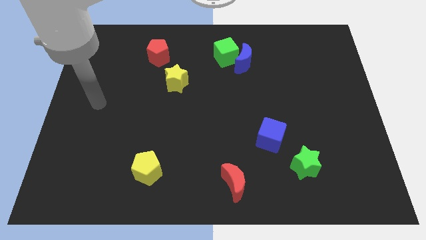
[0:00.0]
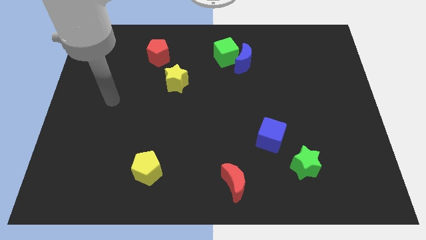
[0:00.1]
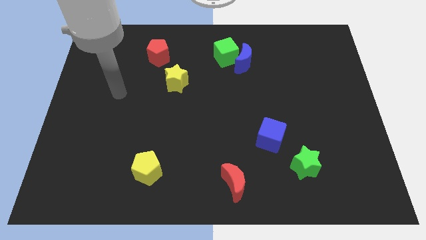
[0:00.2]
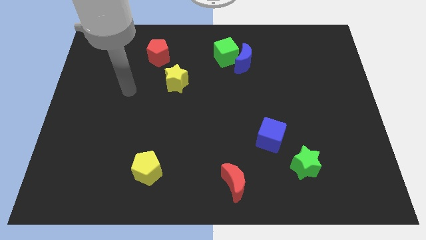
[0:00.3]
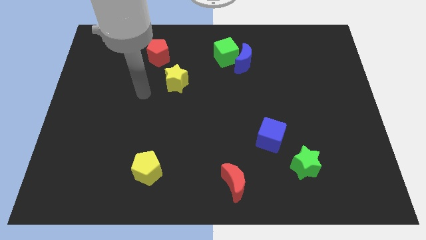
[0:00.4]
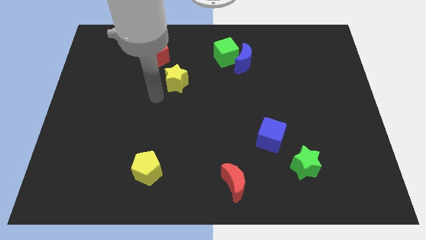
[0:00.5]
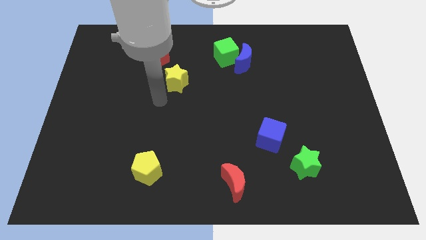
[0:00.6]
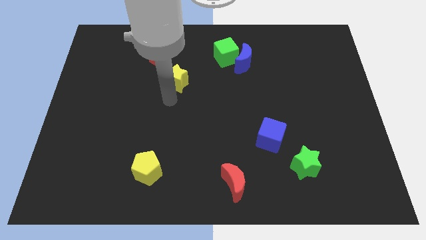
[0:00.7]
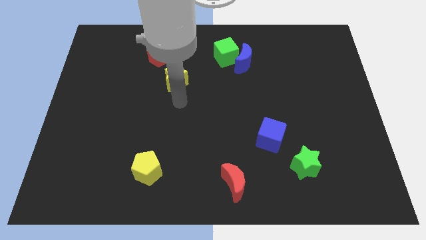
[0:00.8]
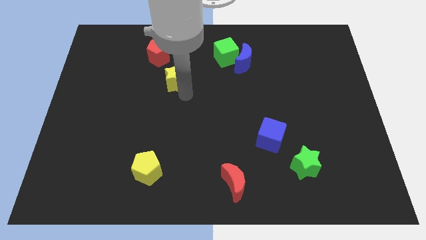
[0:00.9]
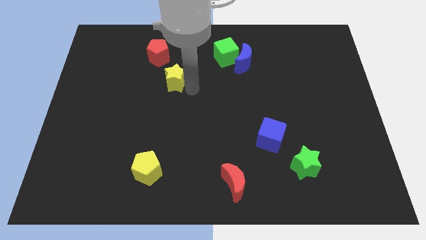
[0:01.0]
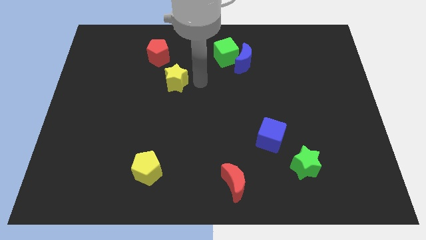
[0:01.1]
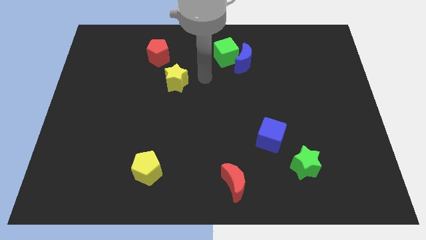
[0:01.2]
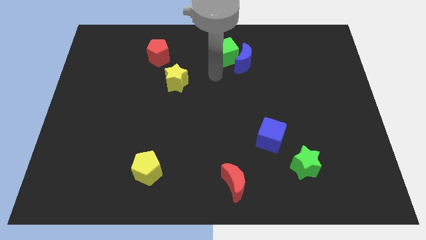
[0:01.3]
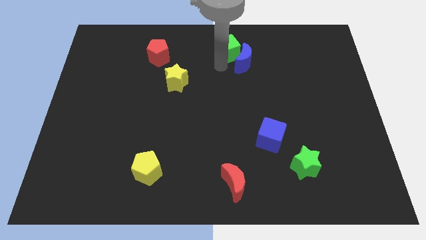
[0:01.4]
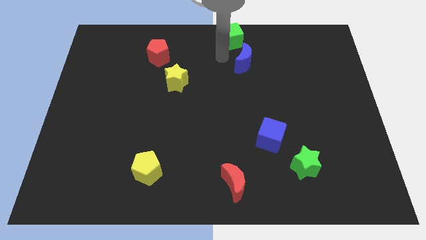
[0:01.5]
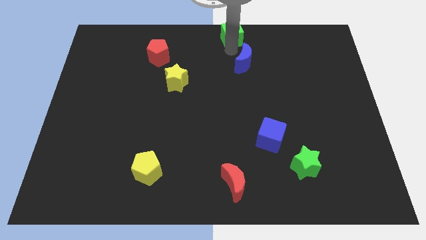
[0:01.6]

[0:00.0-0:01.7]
pull the blue moon apart from the green cube

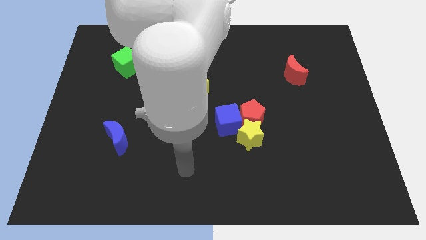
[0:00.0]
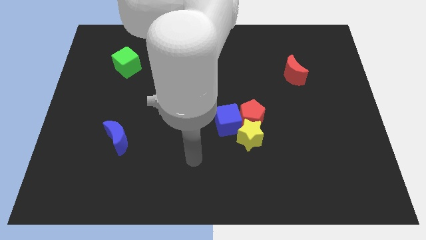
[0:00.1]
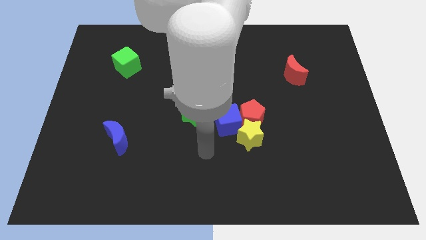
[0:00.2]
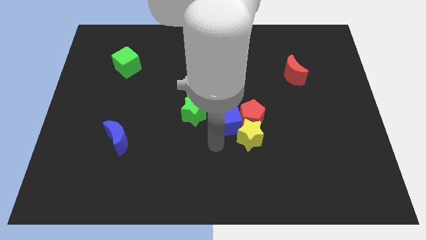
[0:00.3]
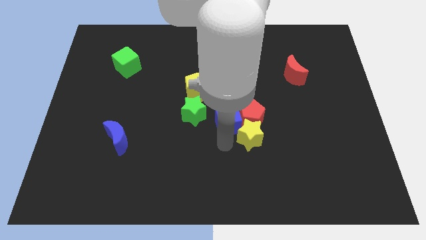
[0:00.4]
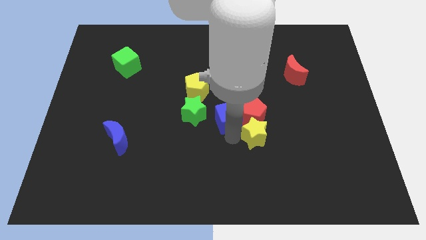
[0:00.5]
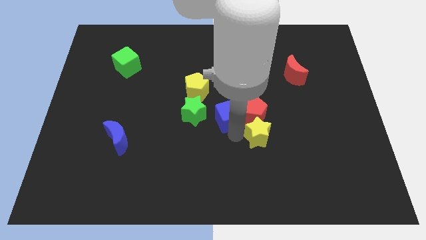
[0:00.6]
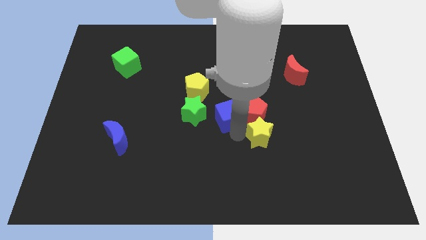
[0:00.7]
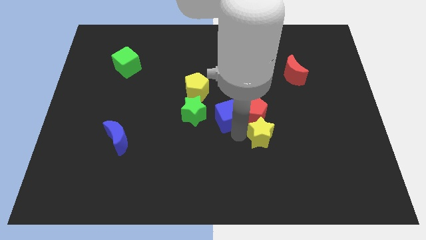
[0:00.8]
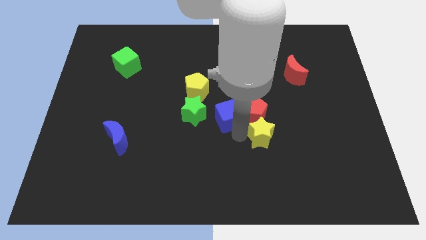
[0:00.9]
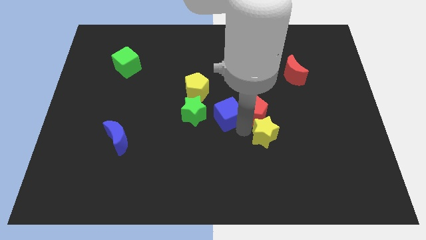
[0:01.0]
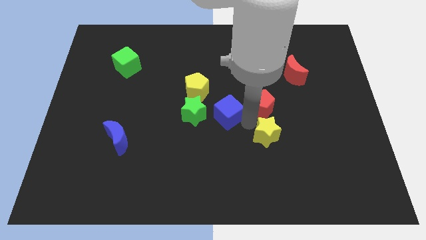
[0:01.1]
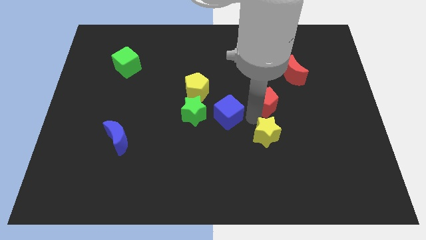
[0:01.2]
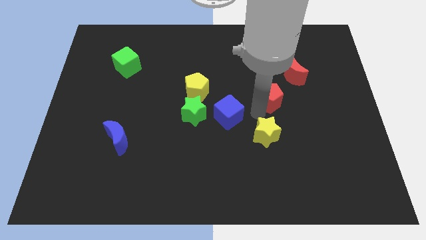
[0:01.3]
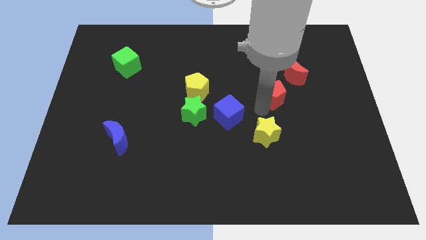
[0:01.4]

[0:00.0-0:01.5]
move the red pentagon away from the yellow star and blue cube

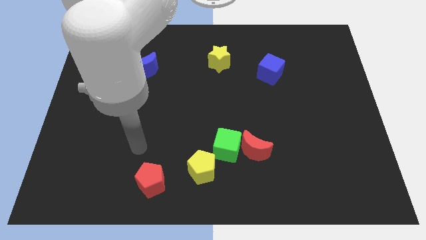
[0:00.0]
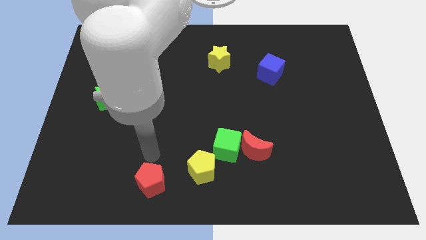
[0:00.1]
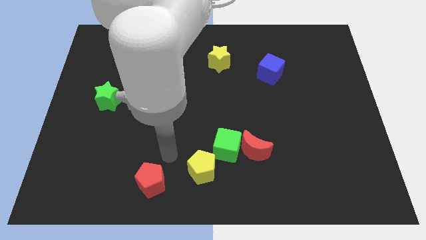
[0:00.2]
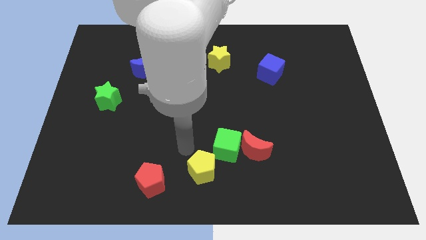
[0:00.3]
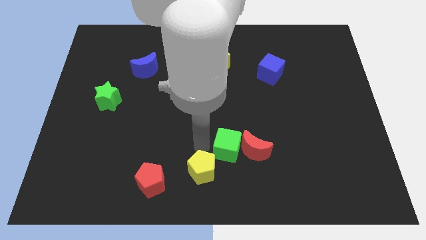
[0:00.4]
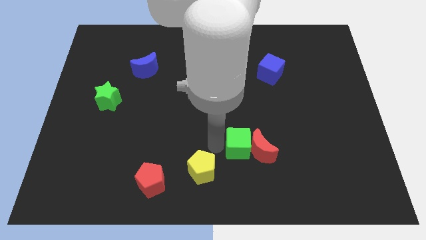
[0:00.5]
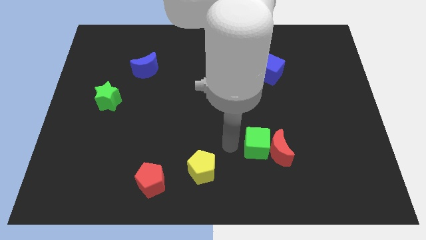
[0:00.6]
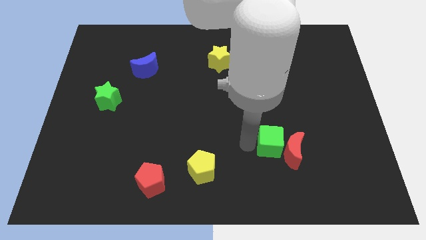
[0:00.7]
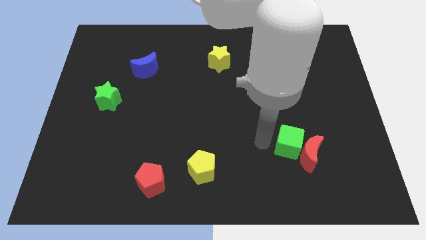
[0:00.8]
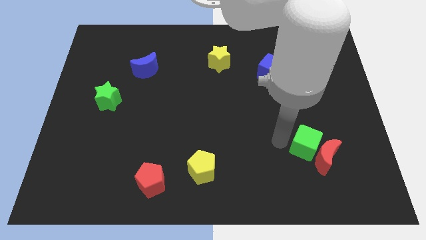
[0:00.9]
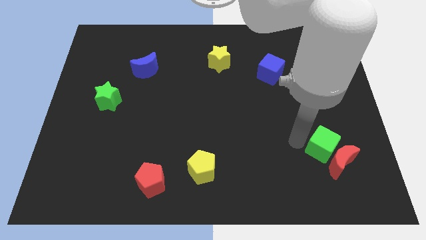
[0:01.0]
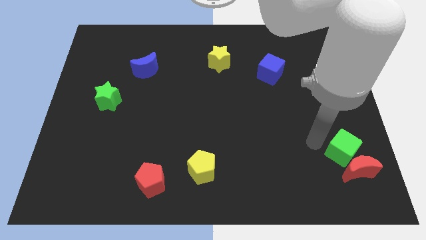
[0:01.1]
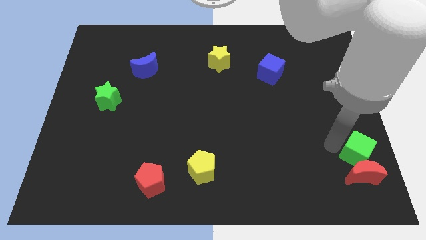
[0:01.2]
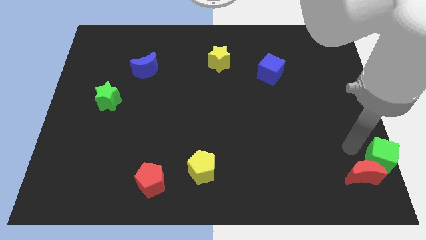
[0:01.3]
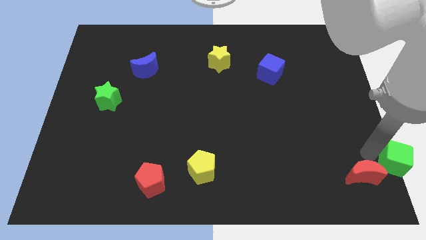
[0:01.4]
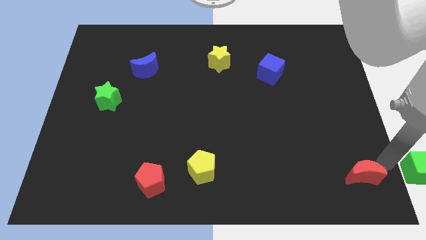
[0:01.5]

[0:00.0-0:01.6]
move the red moon away from the green cube

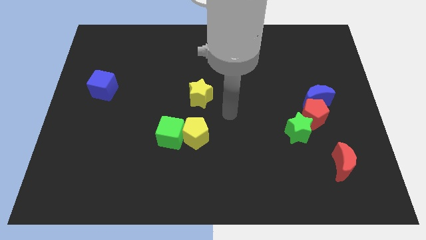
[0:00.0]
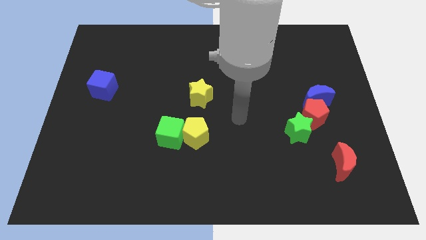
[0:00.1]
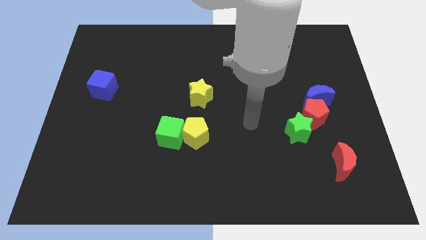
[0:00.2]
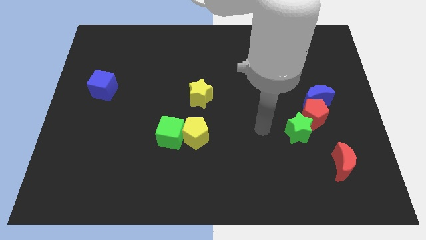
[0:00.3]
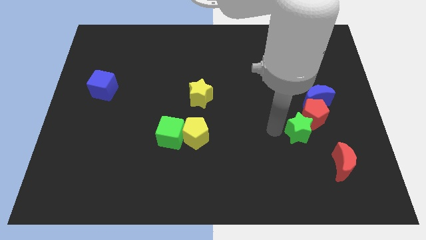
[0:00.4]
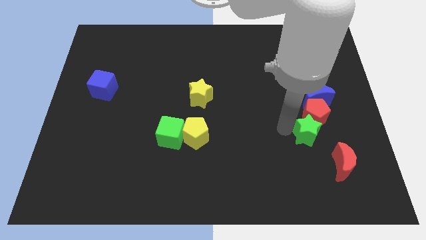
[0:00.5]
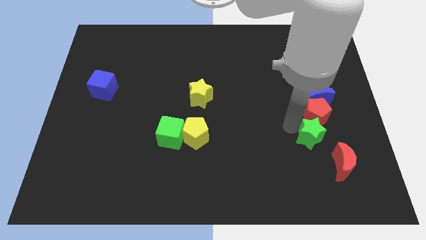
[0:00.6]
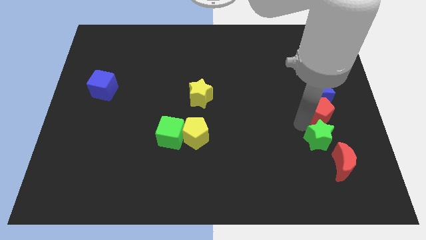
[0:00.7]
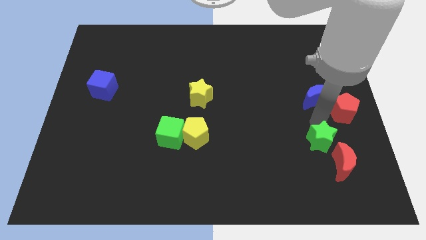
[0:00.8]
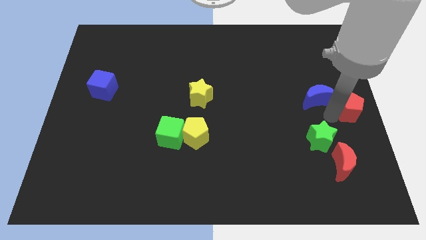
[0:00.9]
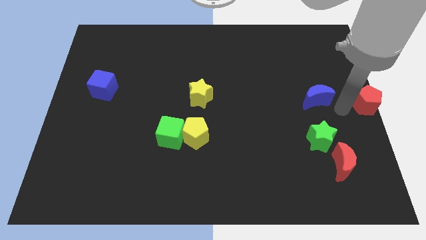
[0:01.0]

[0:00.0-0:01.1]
move the blue moon away from the red pentagon

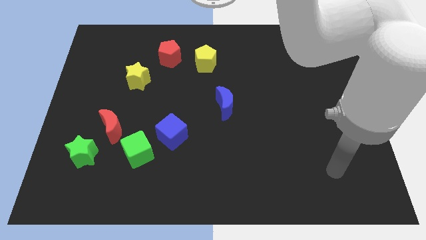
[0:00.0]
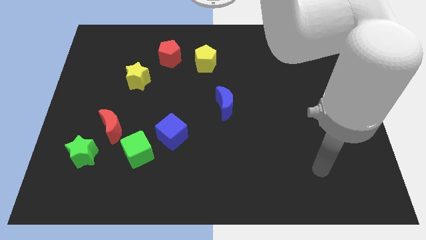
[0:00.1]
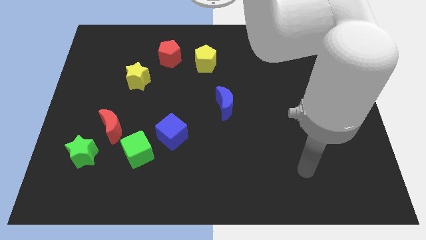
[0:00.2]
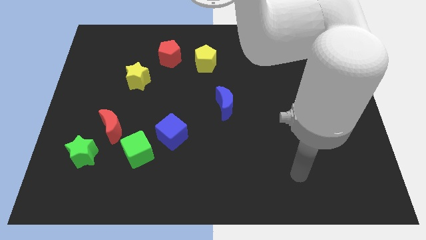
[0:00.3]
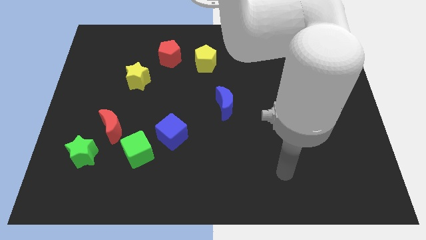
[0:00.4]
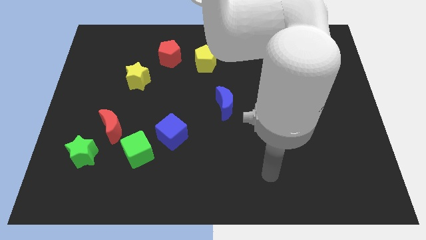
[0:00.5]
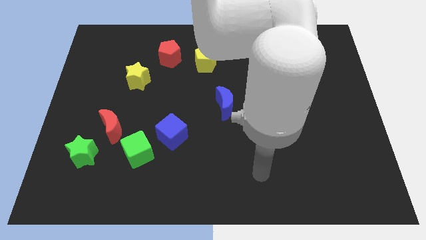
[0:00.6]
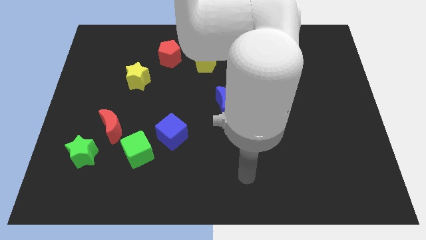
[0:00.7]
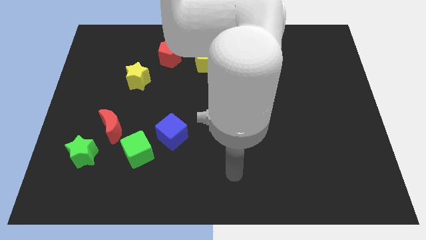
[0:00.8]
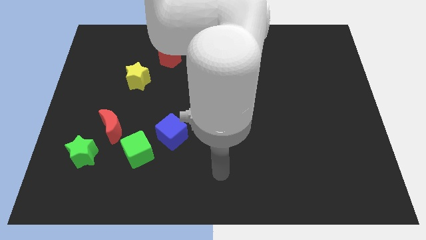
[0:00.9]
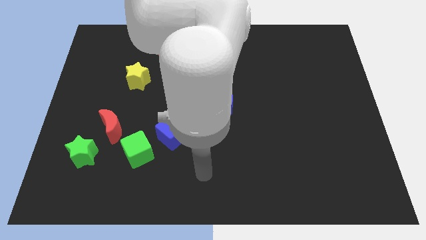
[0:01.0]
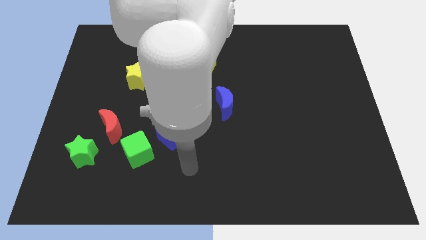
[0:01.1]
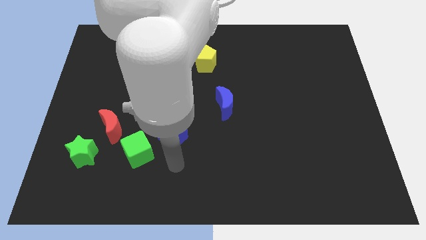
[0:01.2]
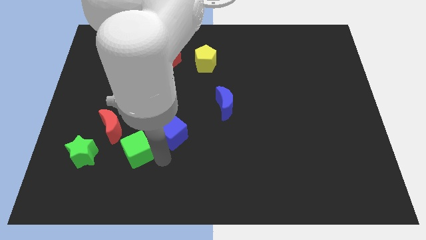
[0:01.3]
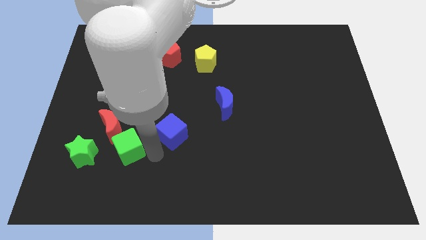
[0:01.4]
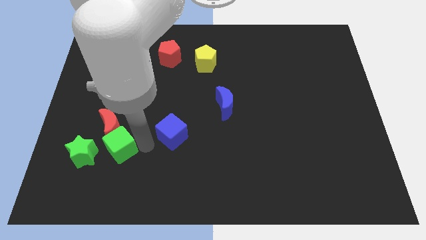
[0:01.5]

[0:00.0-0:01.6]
separate the blue cube from the green cube

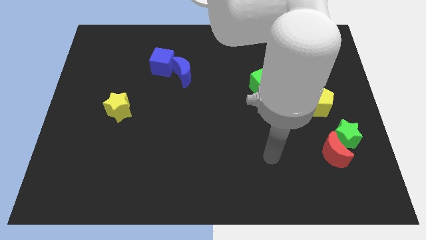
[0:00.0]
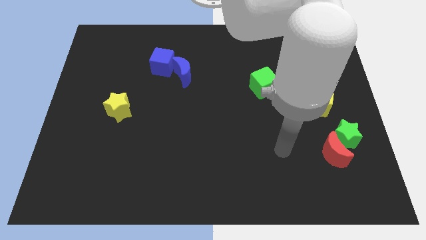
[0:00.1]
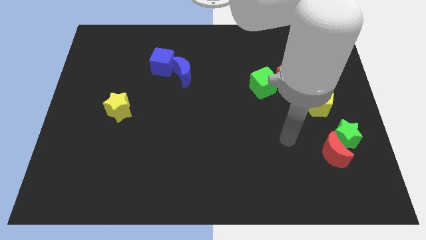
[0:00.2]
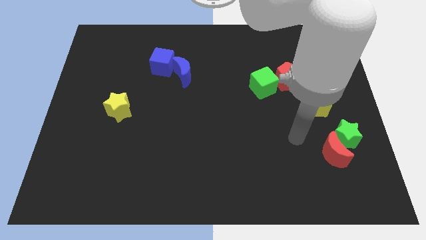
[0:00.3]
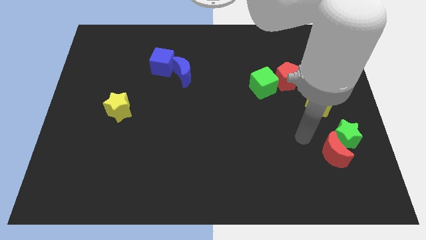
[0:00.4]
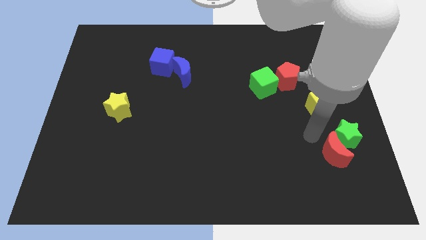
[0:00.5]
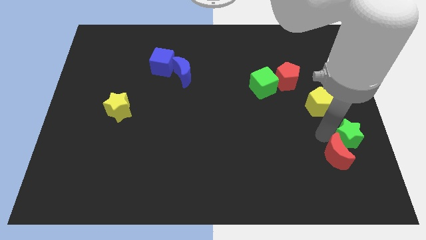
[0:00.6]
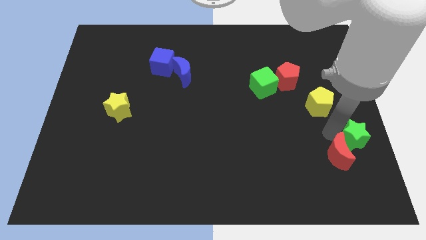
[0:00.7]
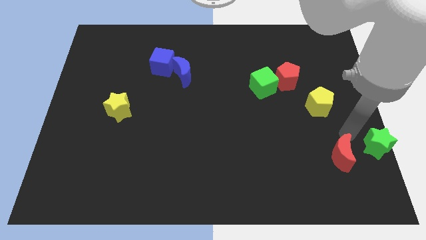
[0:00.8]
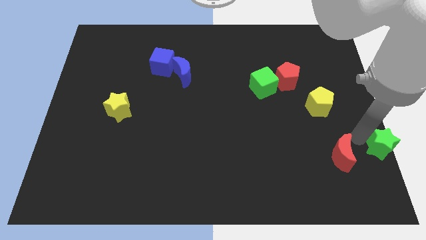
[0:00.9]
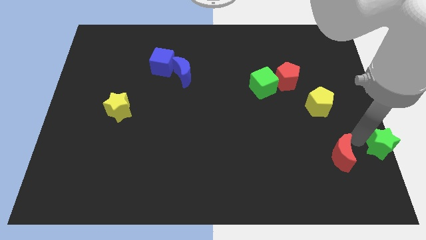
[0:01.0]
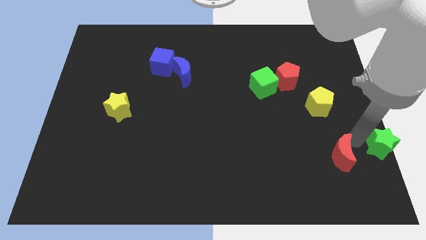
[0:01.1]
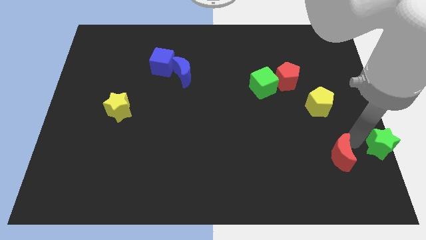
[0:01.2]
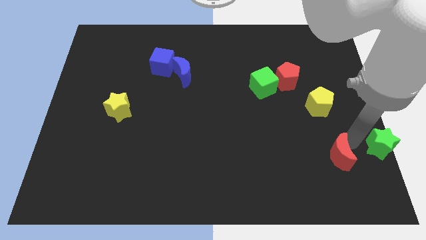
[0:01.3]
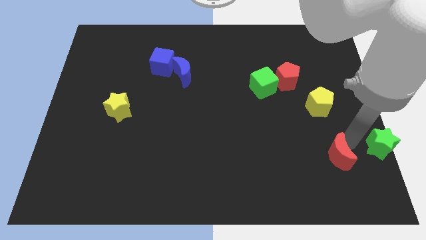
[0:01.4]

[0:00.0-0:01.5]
move the red moon away from the green star

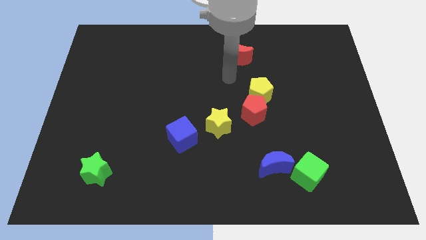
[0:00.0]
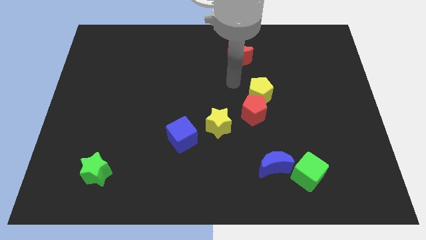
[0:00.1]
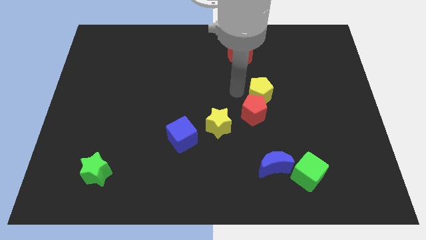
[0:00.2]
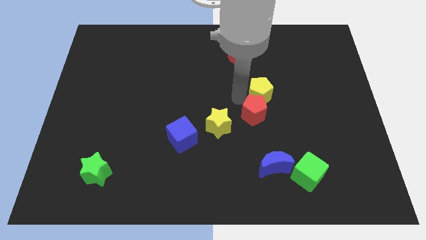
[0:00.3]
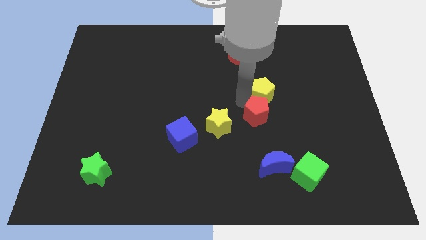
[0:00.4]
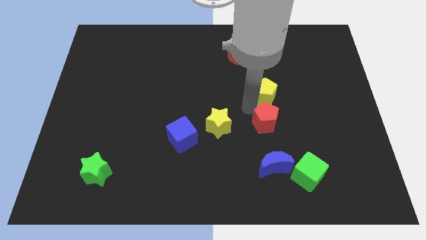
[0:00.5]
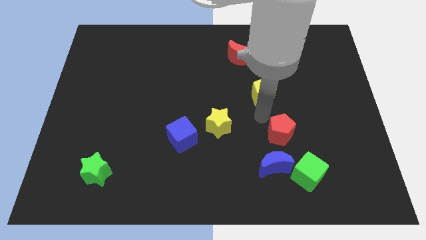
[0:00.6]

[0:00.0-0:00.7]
pull the yellow pentagon apart from the red pentagon
